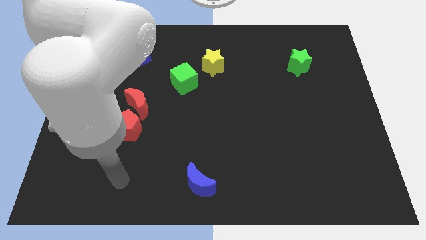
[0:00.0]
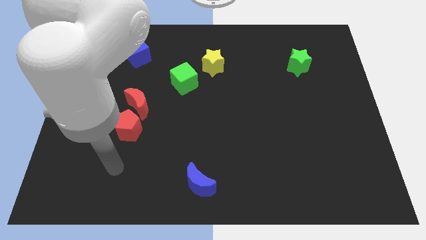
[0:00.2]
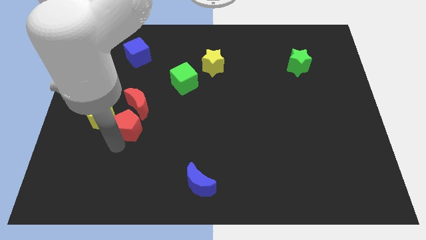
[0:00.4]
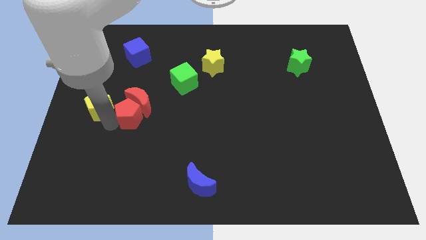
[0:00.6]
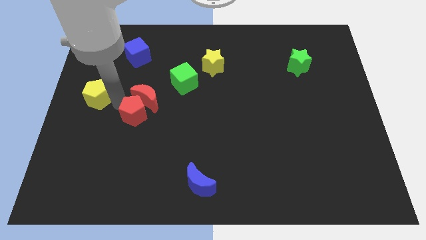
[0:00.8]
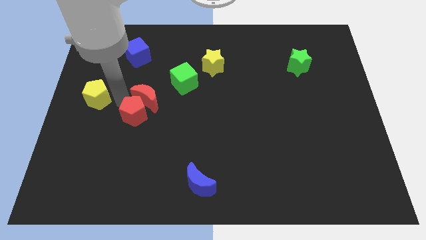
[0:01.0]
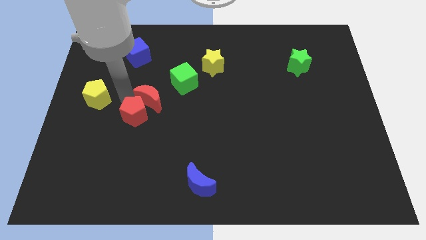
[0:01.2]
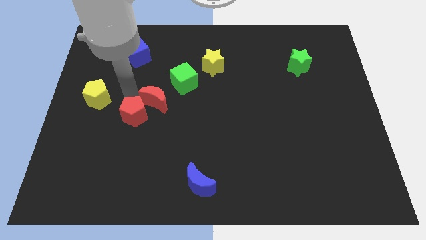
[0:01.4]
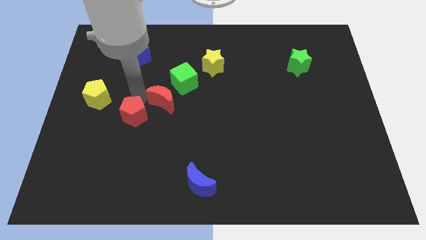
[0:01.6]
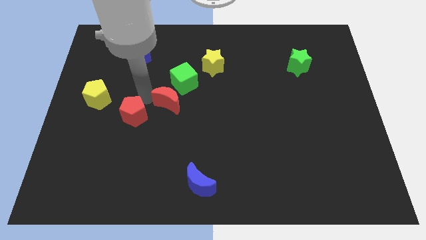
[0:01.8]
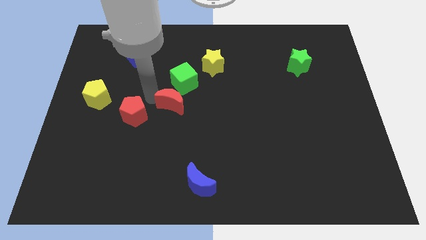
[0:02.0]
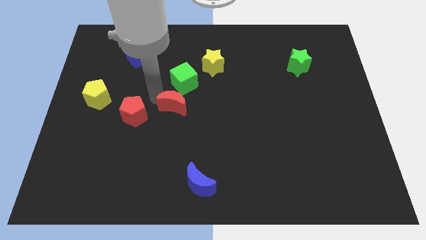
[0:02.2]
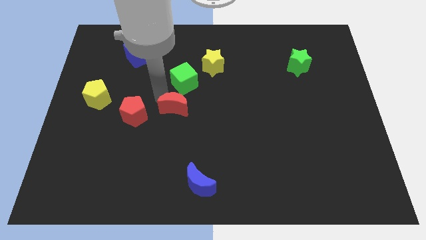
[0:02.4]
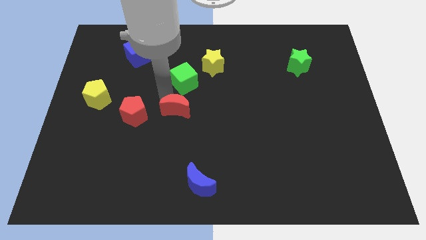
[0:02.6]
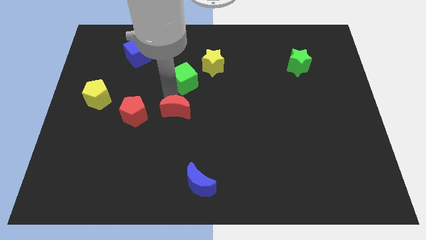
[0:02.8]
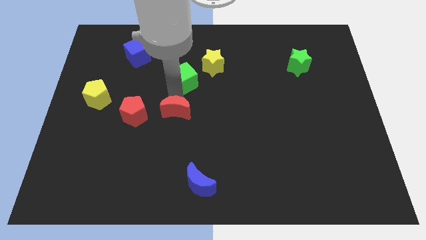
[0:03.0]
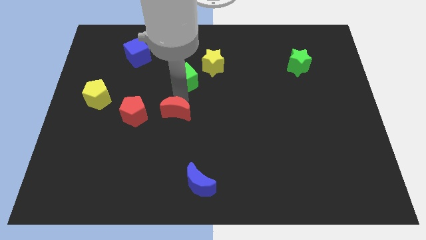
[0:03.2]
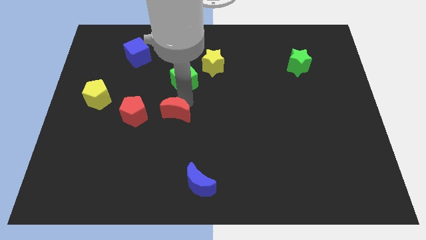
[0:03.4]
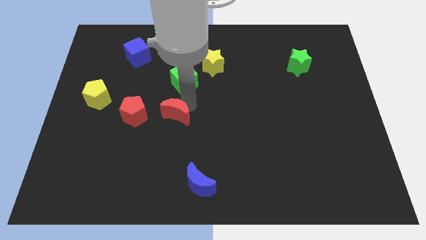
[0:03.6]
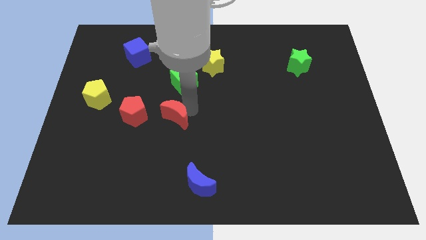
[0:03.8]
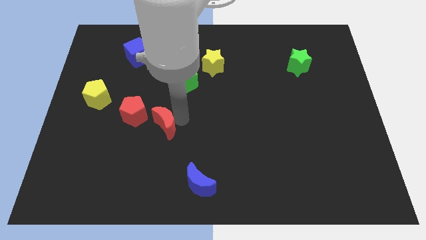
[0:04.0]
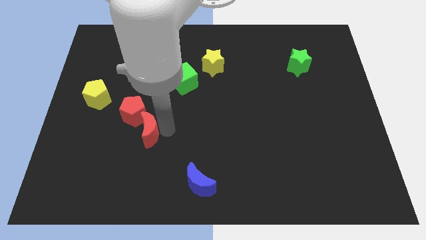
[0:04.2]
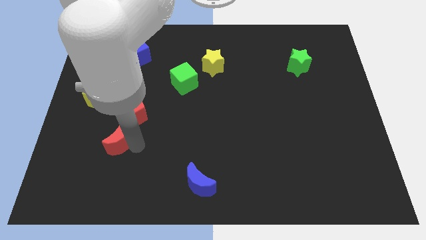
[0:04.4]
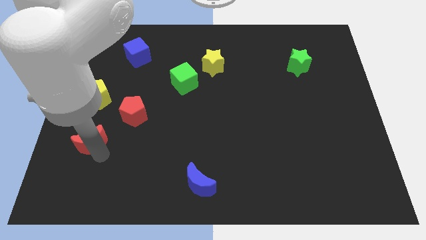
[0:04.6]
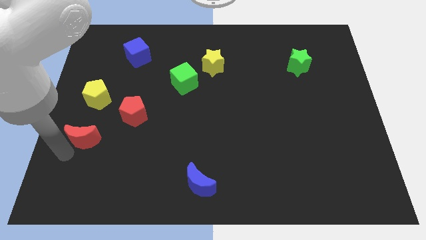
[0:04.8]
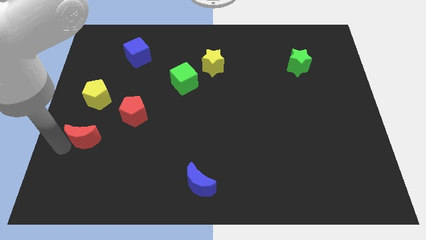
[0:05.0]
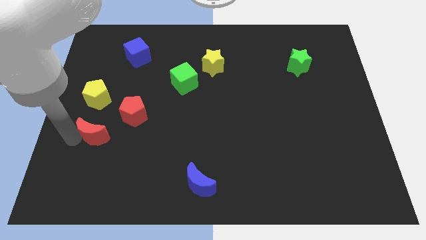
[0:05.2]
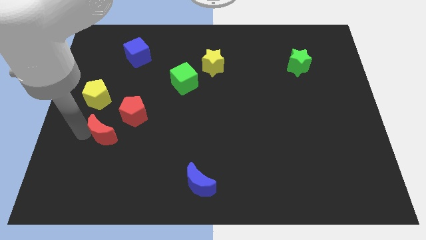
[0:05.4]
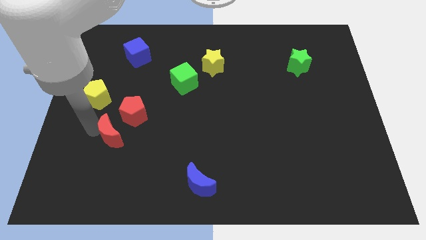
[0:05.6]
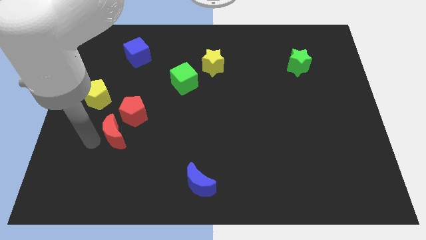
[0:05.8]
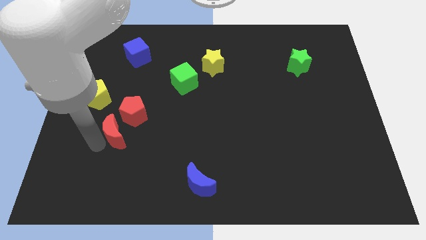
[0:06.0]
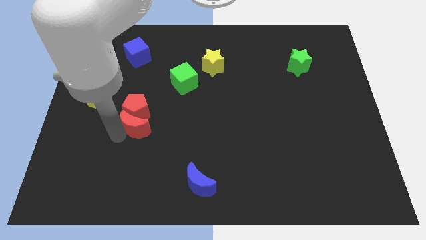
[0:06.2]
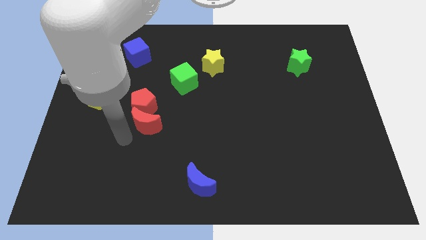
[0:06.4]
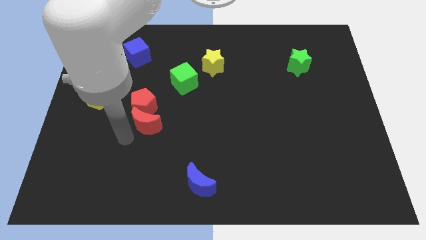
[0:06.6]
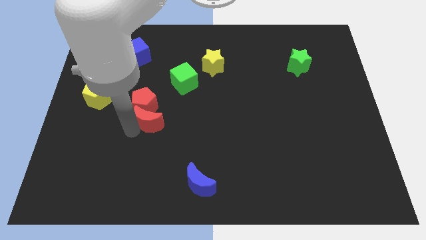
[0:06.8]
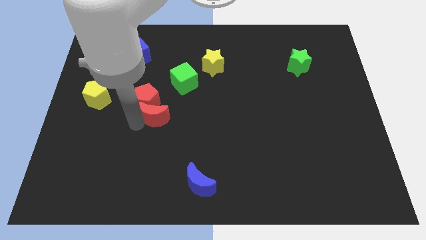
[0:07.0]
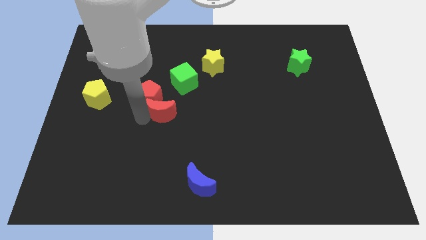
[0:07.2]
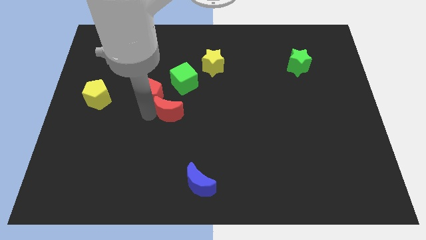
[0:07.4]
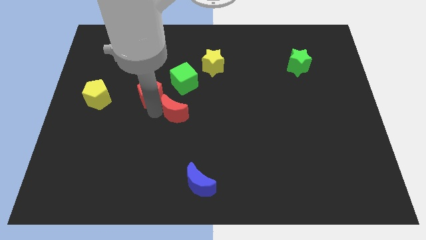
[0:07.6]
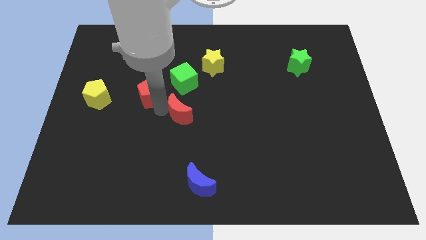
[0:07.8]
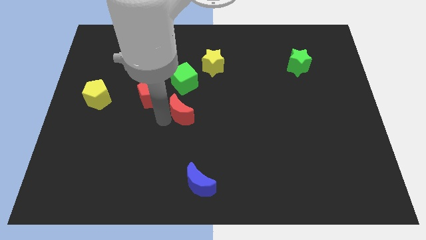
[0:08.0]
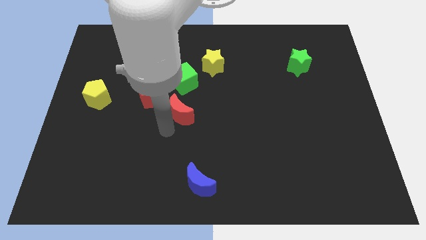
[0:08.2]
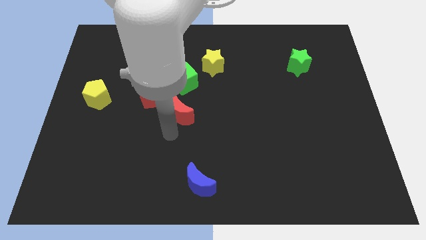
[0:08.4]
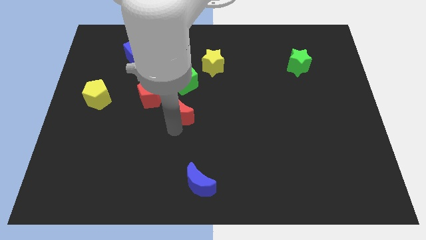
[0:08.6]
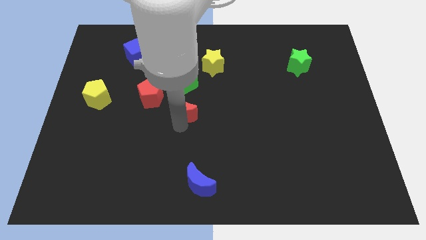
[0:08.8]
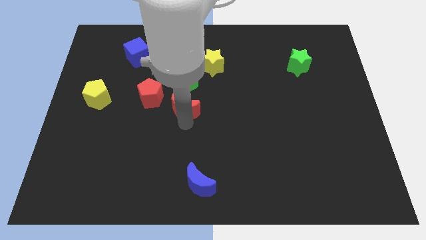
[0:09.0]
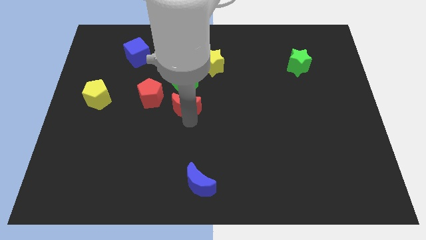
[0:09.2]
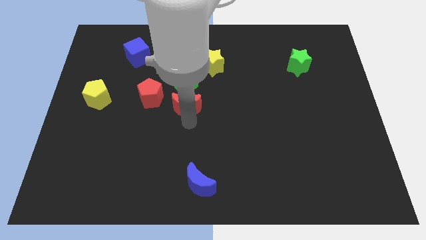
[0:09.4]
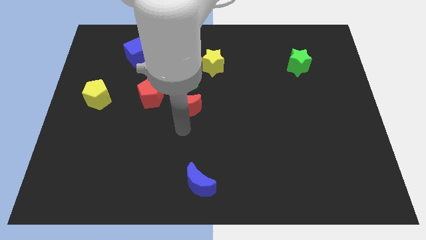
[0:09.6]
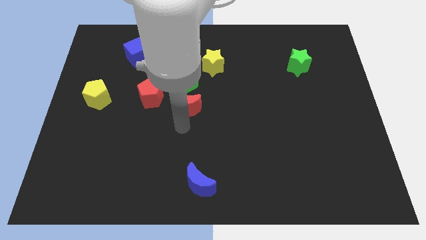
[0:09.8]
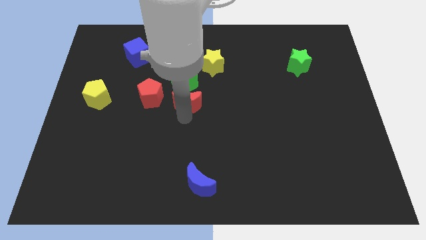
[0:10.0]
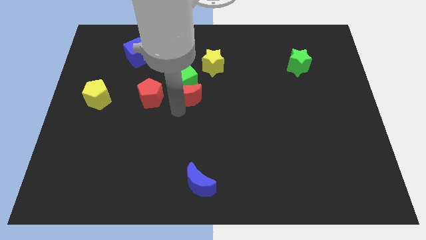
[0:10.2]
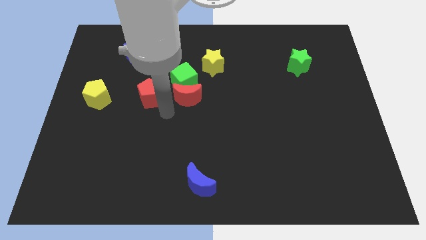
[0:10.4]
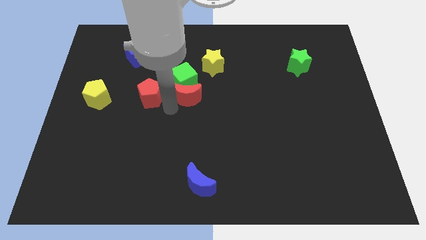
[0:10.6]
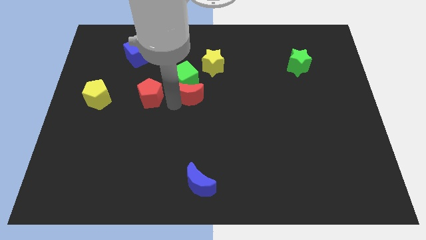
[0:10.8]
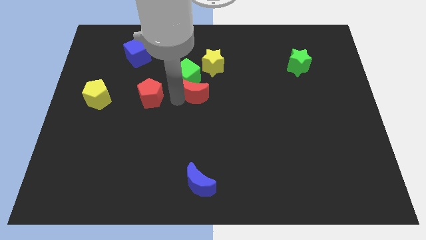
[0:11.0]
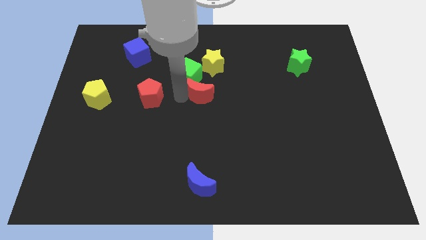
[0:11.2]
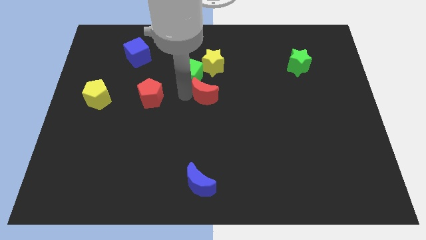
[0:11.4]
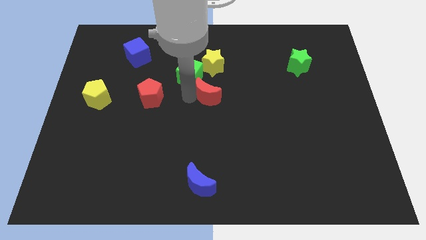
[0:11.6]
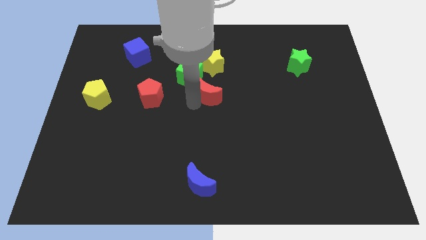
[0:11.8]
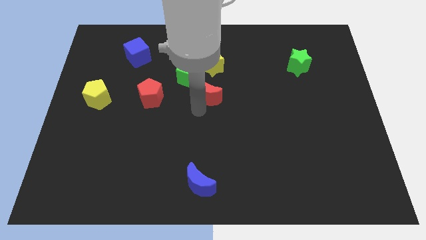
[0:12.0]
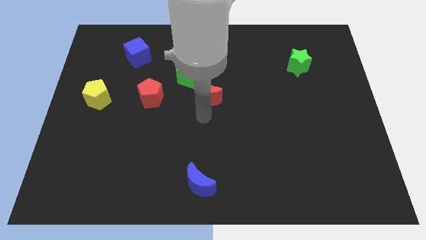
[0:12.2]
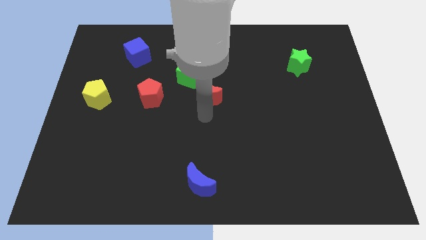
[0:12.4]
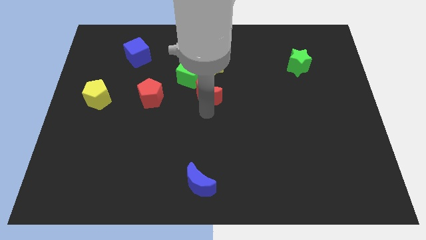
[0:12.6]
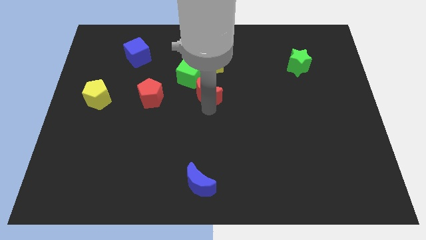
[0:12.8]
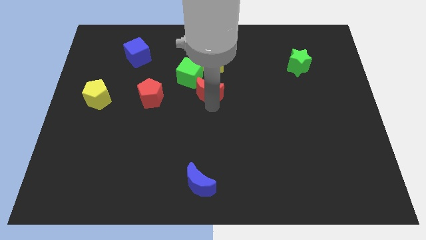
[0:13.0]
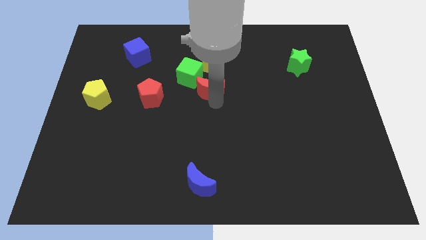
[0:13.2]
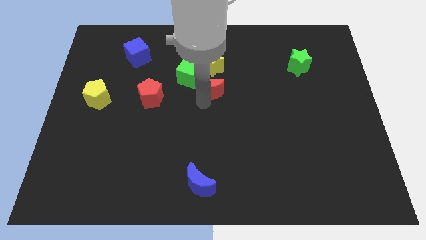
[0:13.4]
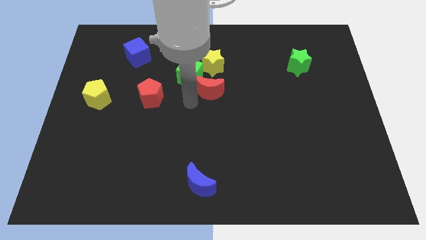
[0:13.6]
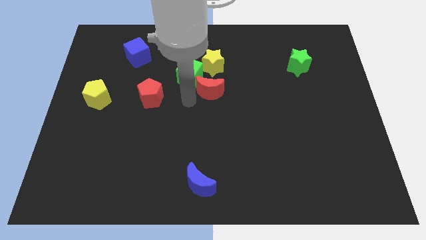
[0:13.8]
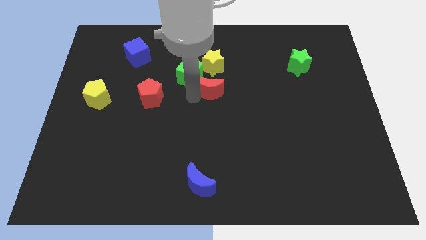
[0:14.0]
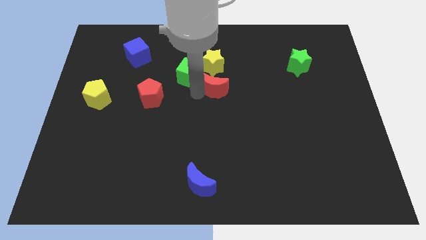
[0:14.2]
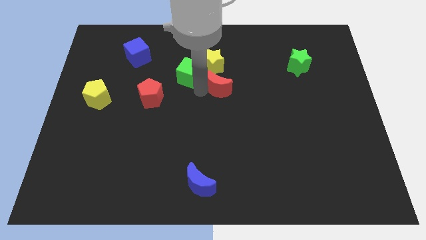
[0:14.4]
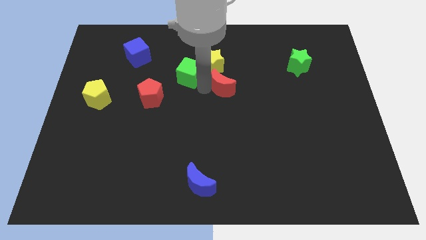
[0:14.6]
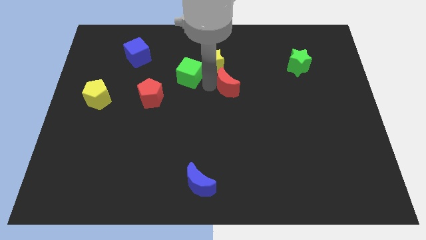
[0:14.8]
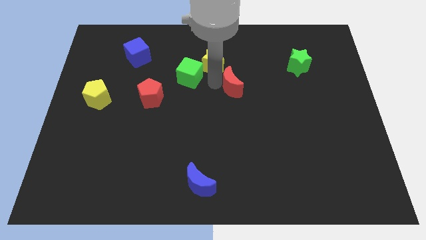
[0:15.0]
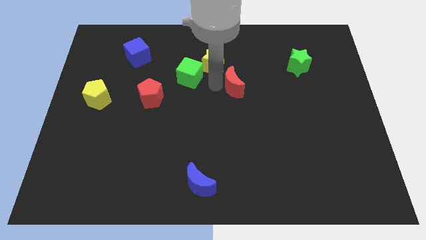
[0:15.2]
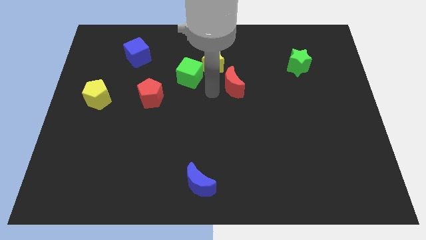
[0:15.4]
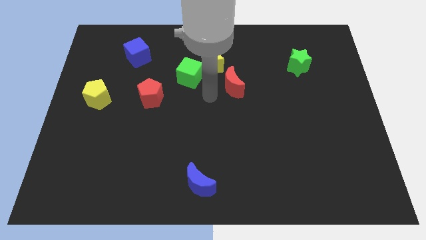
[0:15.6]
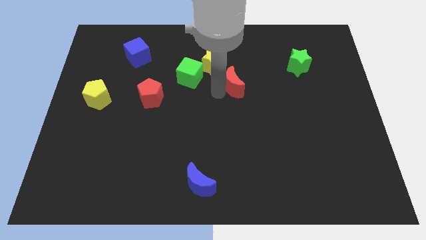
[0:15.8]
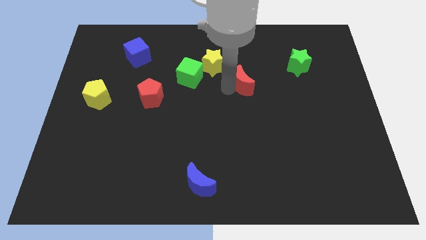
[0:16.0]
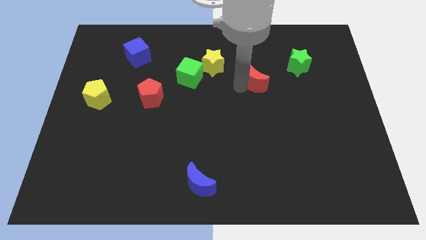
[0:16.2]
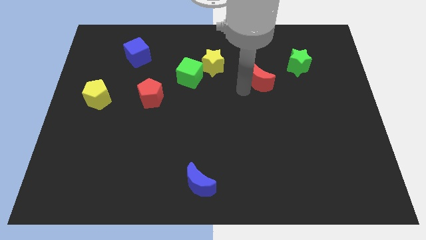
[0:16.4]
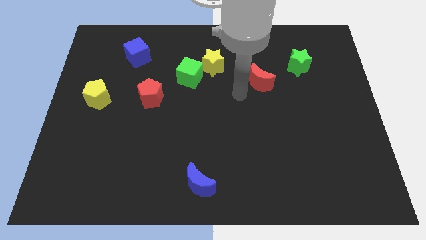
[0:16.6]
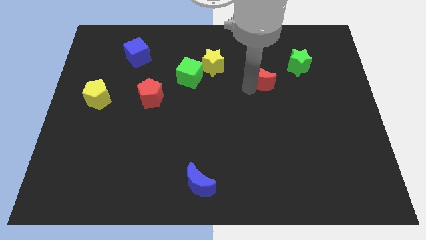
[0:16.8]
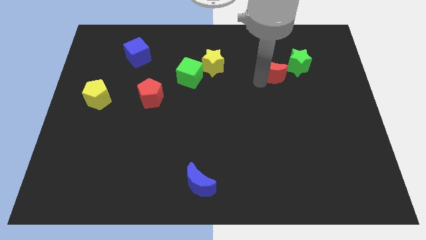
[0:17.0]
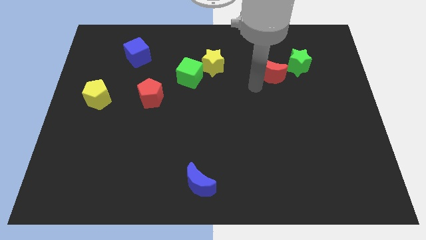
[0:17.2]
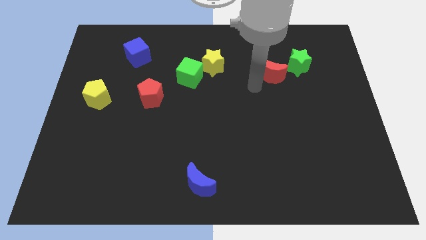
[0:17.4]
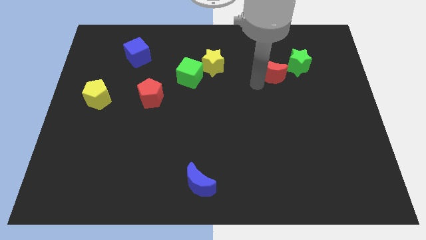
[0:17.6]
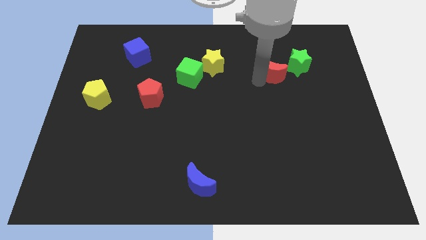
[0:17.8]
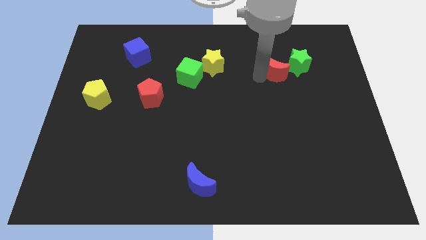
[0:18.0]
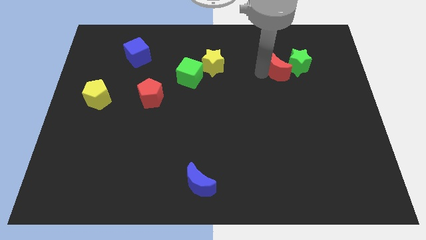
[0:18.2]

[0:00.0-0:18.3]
push the red moon close to the green star
